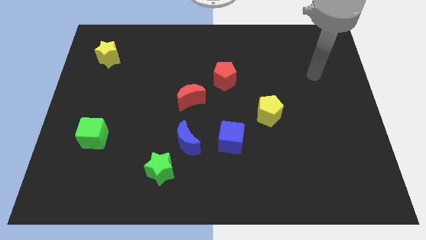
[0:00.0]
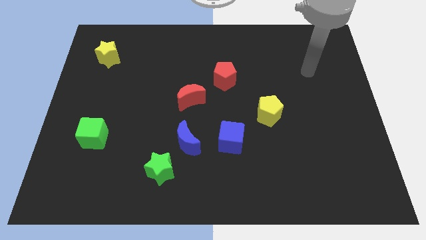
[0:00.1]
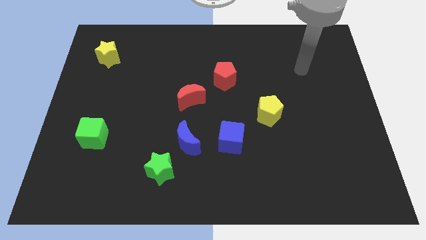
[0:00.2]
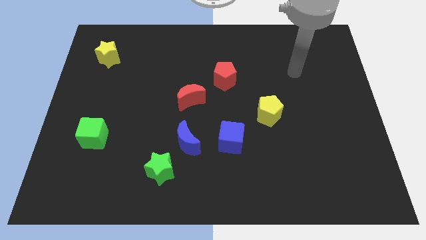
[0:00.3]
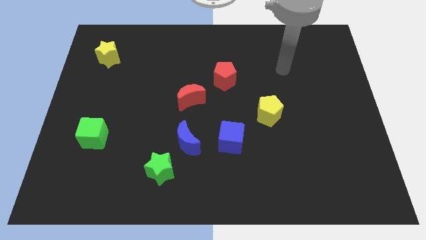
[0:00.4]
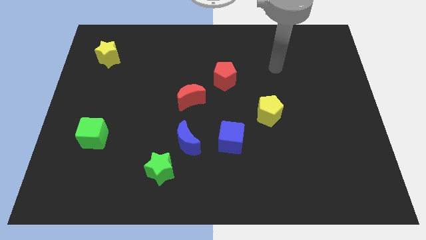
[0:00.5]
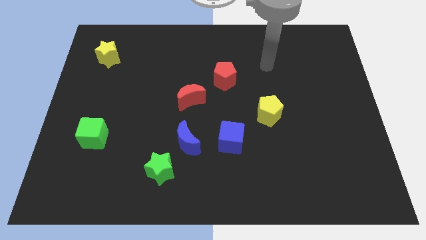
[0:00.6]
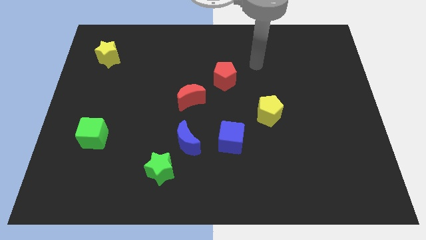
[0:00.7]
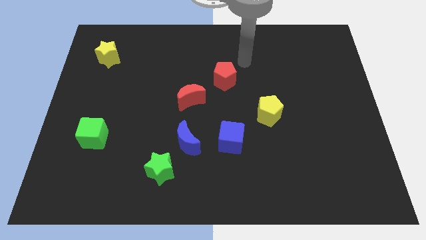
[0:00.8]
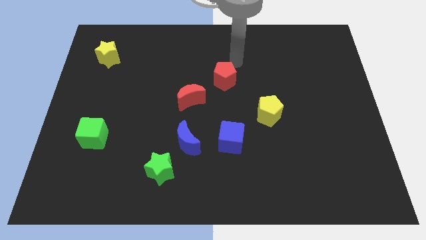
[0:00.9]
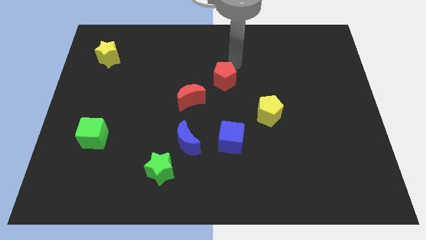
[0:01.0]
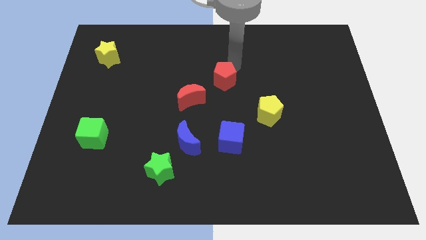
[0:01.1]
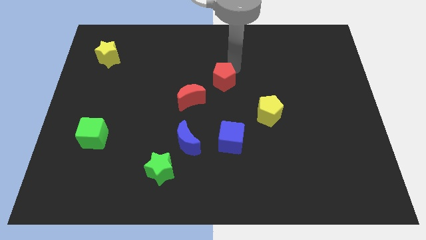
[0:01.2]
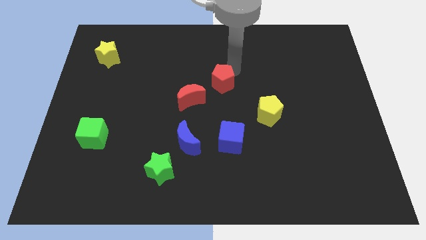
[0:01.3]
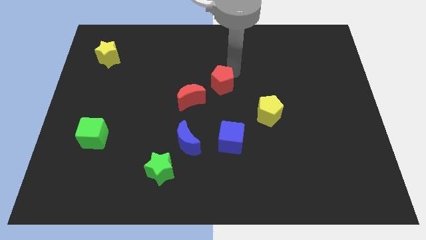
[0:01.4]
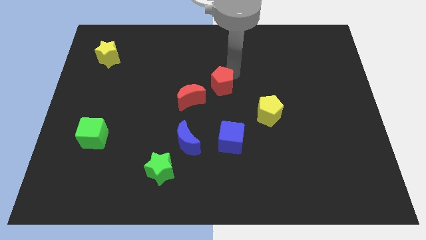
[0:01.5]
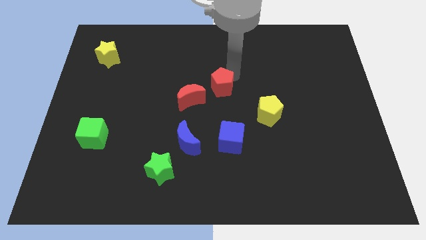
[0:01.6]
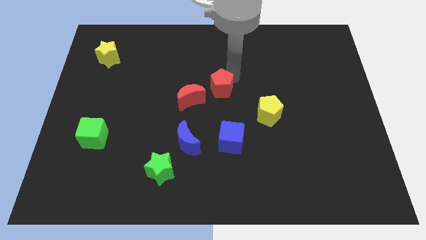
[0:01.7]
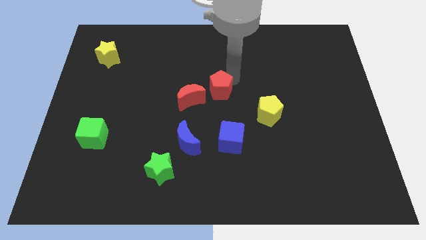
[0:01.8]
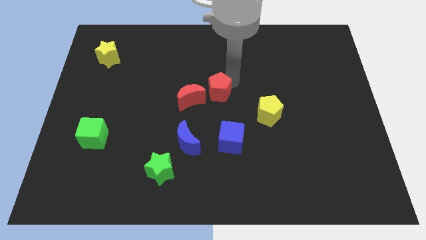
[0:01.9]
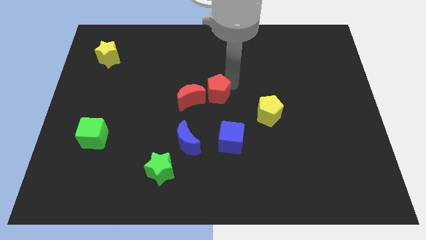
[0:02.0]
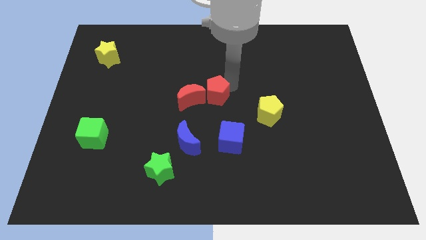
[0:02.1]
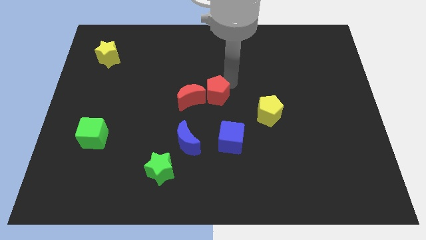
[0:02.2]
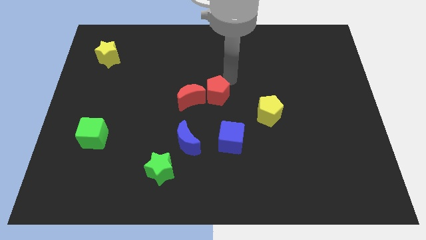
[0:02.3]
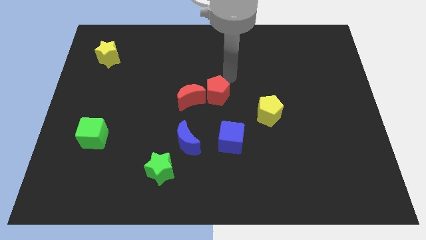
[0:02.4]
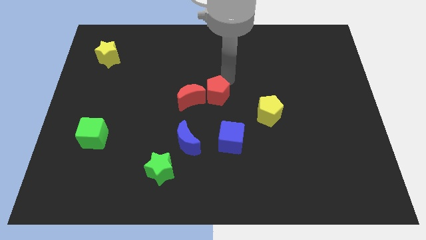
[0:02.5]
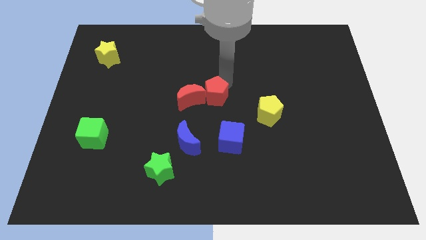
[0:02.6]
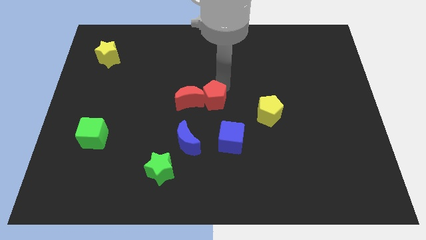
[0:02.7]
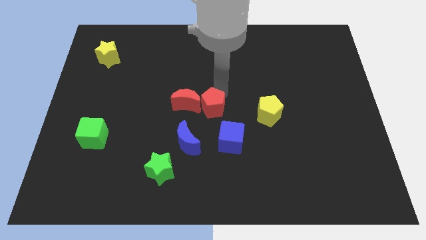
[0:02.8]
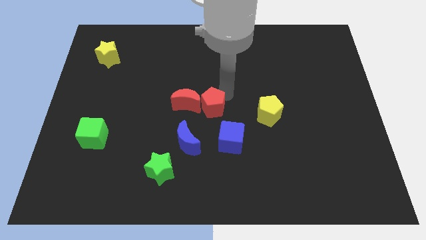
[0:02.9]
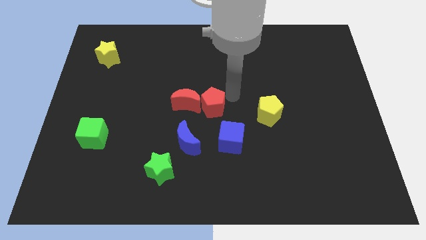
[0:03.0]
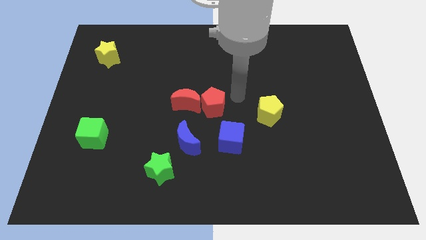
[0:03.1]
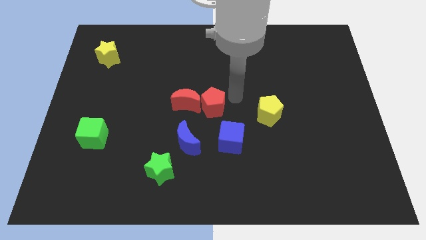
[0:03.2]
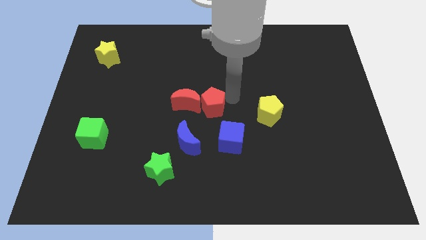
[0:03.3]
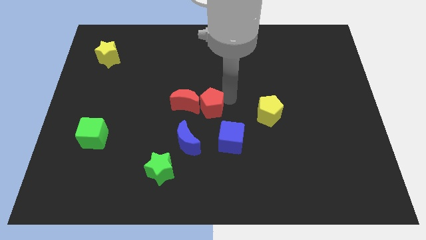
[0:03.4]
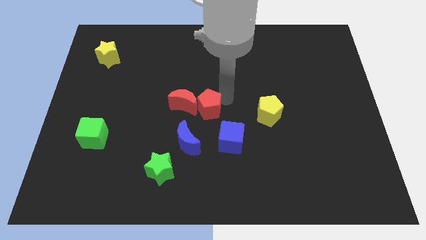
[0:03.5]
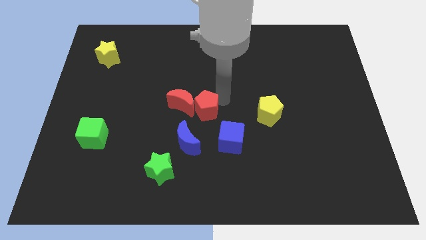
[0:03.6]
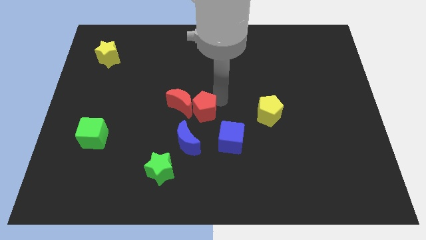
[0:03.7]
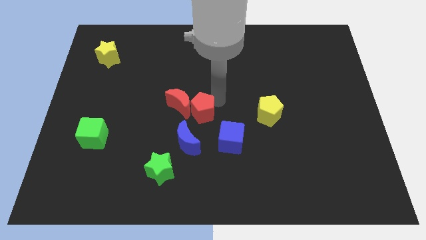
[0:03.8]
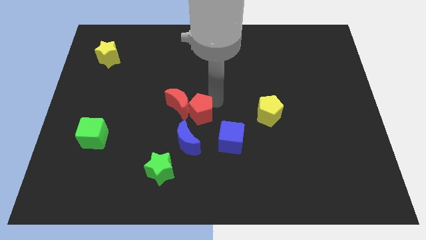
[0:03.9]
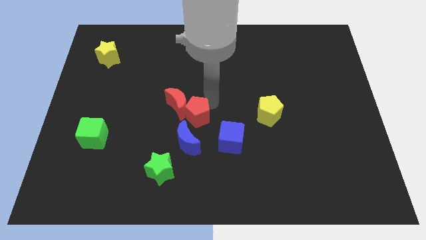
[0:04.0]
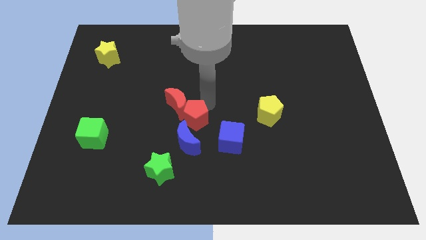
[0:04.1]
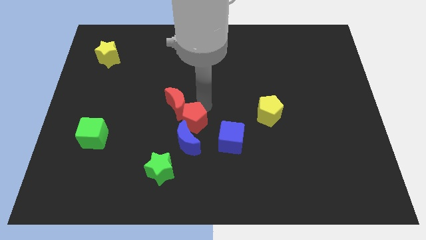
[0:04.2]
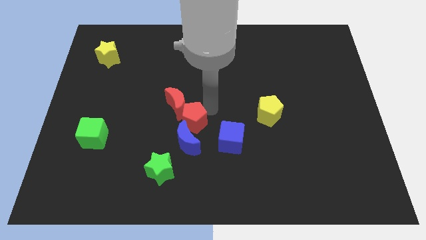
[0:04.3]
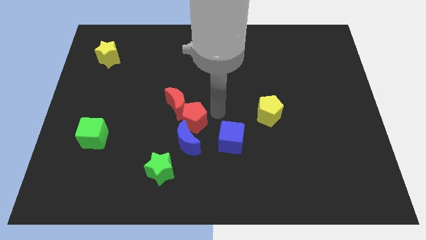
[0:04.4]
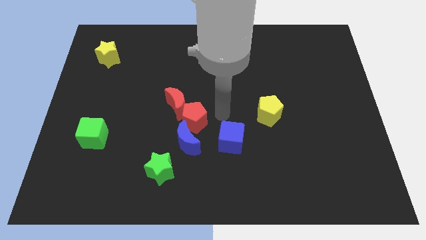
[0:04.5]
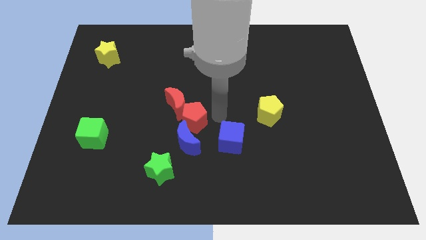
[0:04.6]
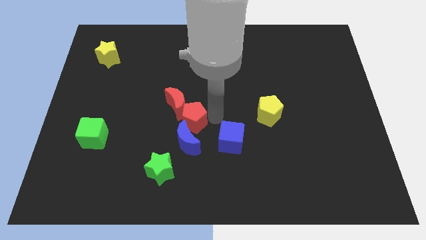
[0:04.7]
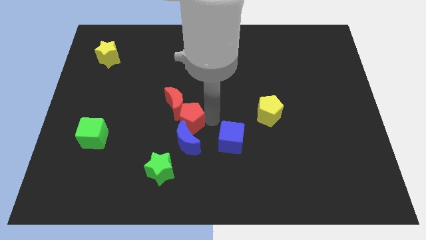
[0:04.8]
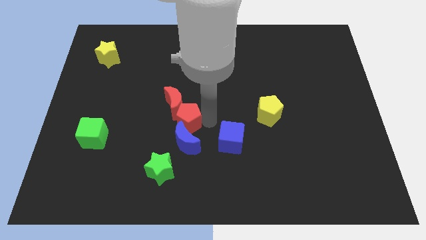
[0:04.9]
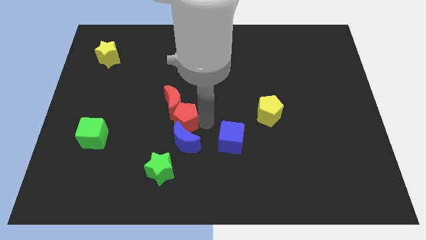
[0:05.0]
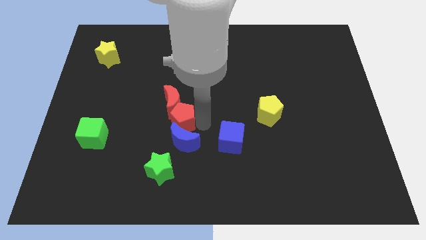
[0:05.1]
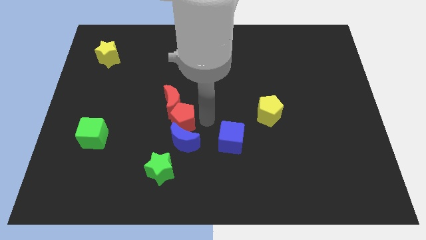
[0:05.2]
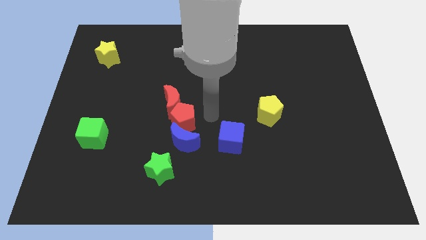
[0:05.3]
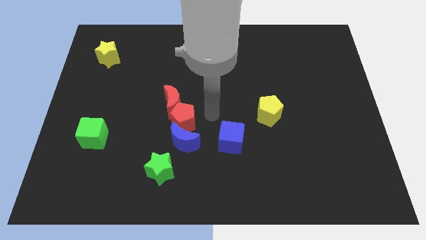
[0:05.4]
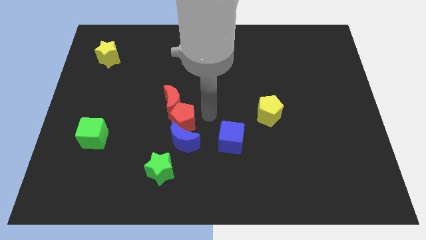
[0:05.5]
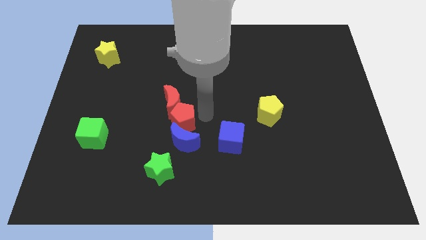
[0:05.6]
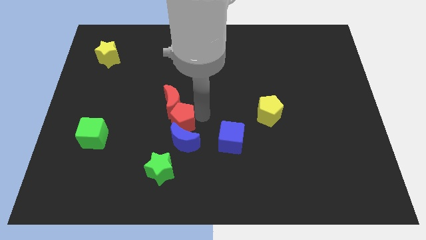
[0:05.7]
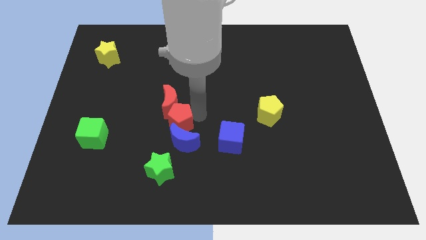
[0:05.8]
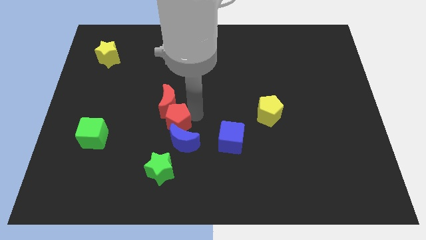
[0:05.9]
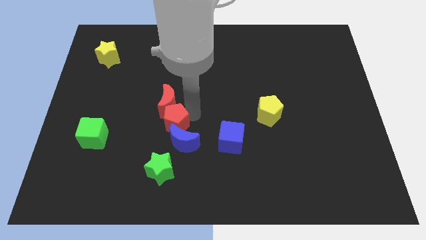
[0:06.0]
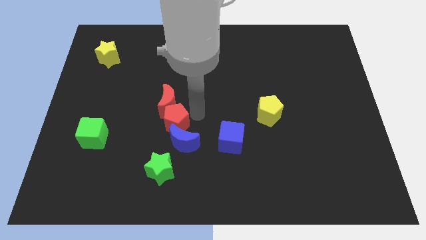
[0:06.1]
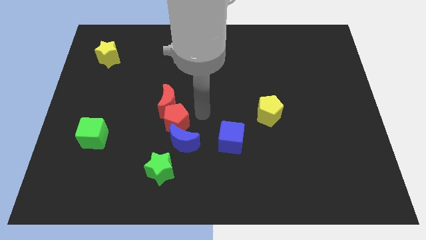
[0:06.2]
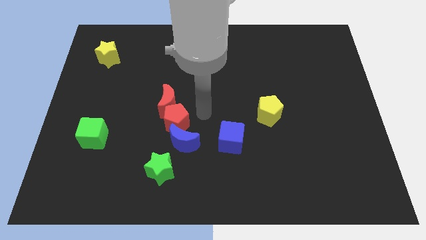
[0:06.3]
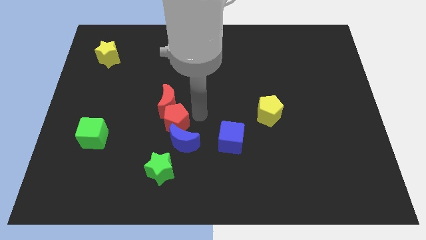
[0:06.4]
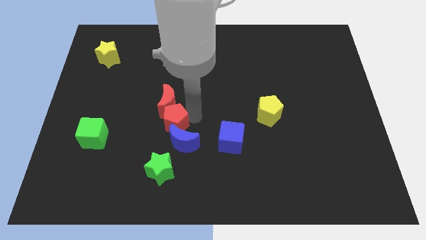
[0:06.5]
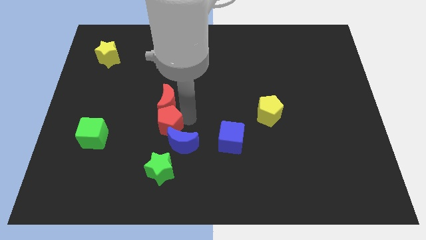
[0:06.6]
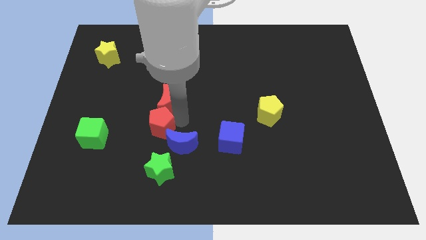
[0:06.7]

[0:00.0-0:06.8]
move the red pentagon down and then left

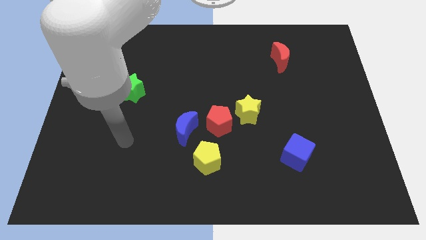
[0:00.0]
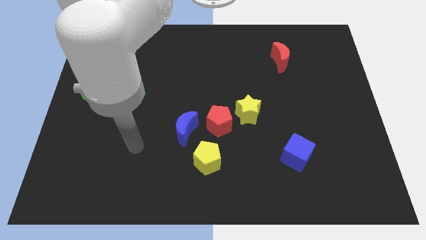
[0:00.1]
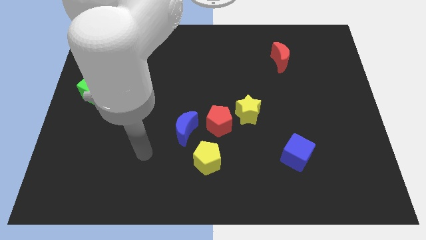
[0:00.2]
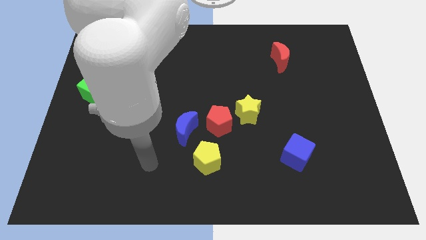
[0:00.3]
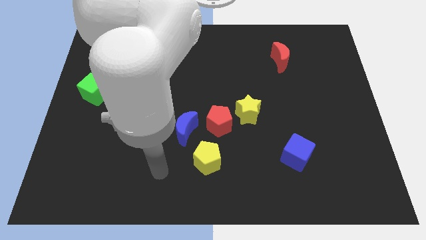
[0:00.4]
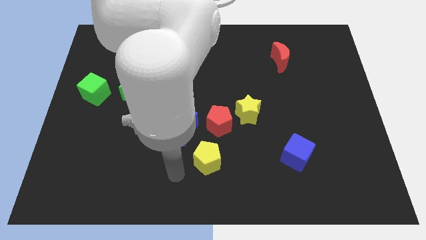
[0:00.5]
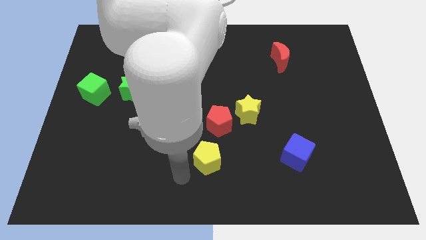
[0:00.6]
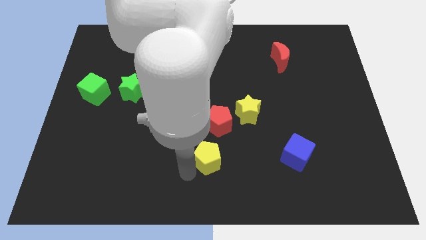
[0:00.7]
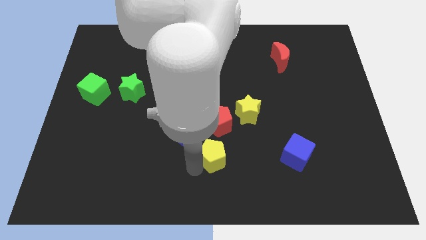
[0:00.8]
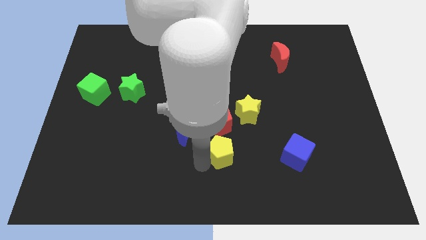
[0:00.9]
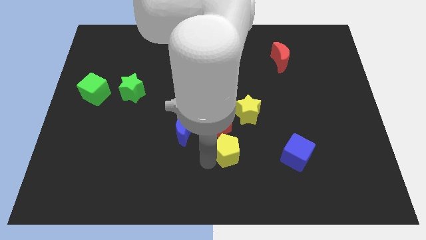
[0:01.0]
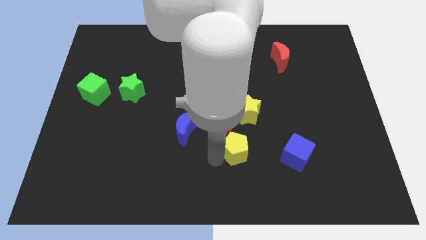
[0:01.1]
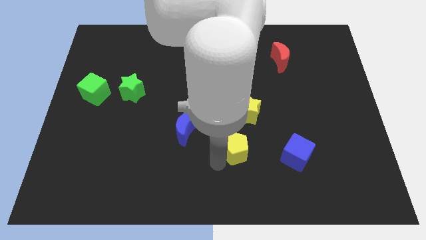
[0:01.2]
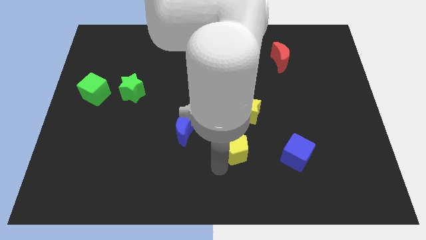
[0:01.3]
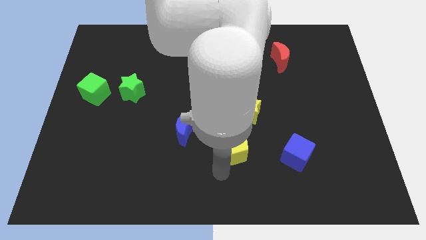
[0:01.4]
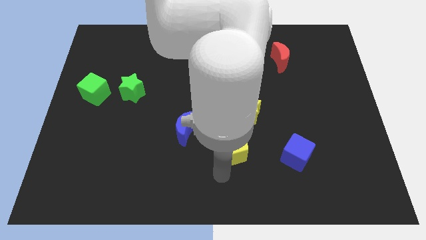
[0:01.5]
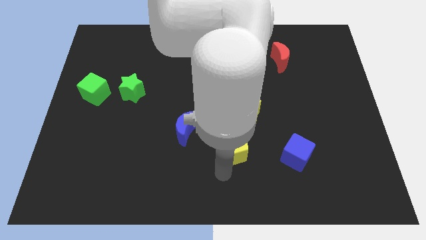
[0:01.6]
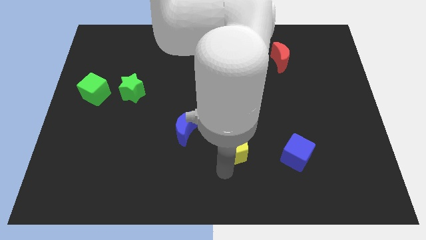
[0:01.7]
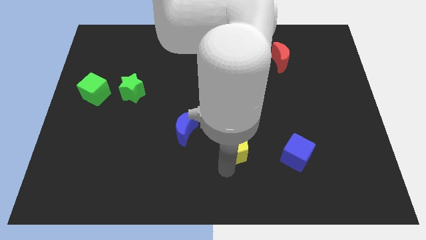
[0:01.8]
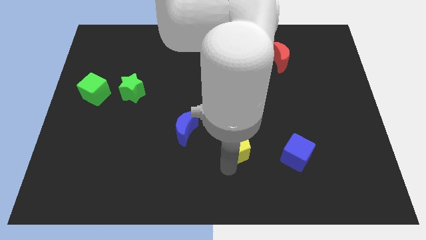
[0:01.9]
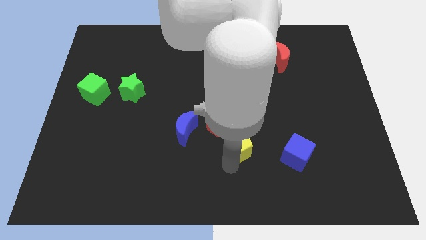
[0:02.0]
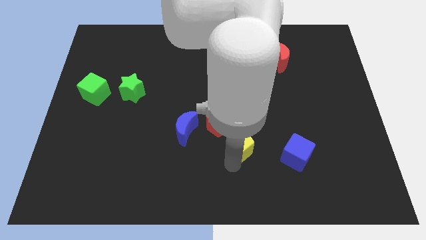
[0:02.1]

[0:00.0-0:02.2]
slightly push the yellow pentagon upwards and then to the right
